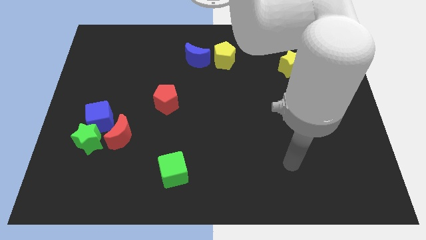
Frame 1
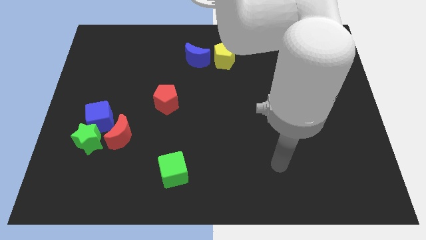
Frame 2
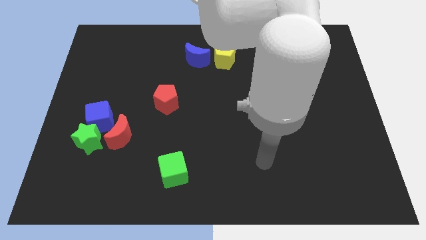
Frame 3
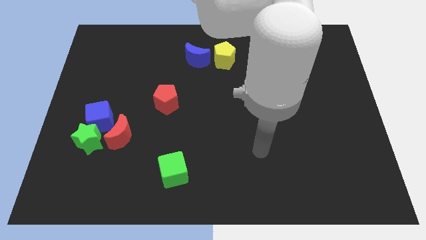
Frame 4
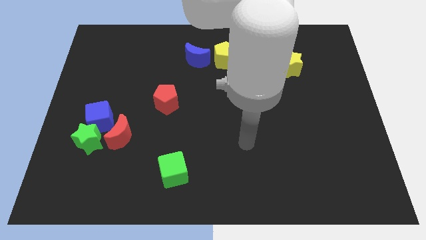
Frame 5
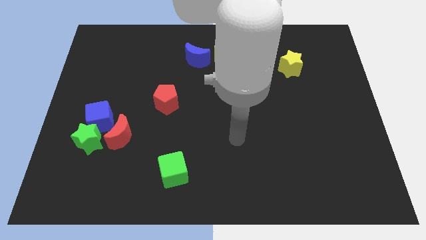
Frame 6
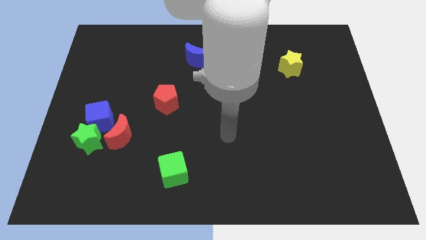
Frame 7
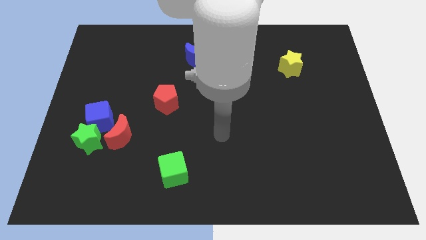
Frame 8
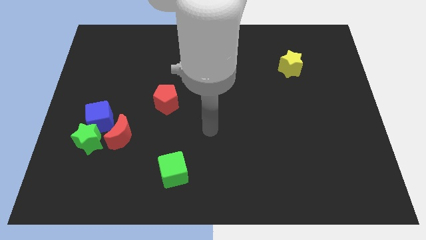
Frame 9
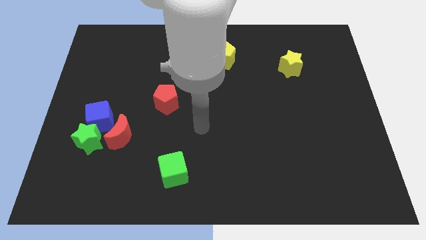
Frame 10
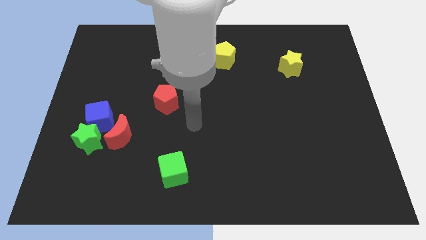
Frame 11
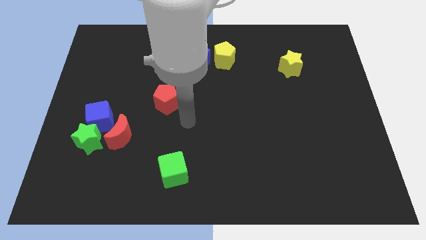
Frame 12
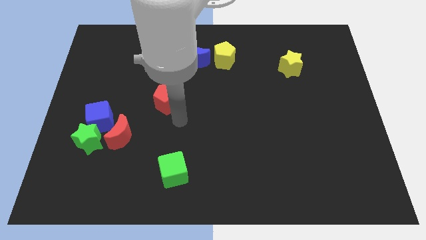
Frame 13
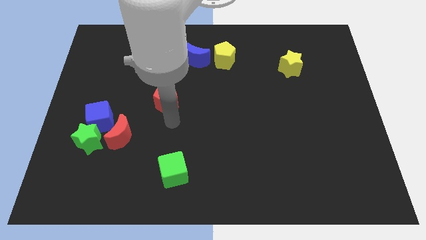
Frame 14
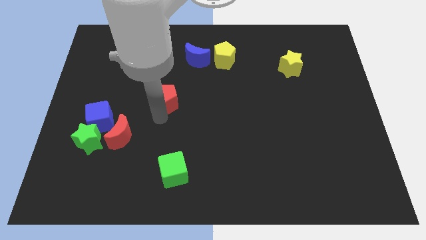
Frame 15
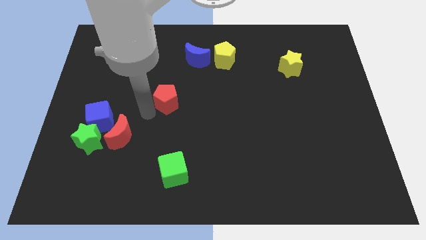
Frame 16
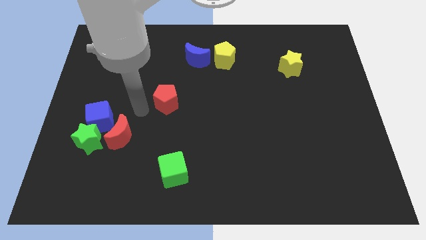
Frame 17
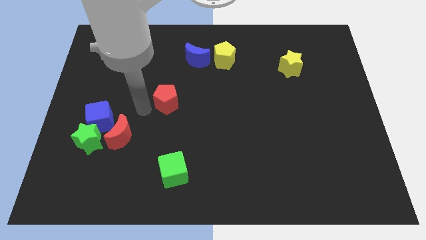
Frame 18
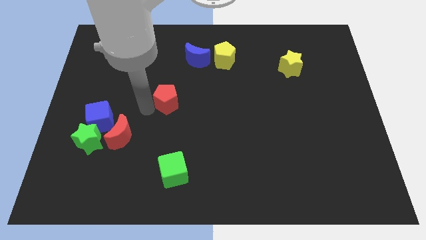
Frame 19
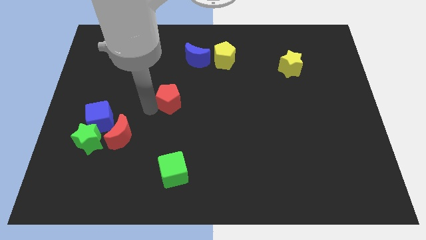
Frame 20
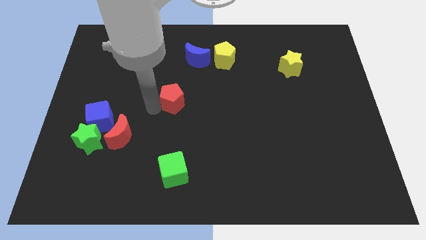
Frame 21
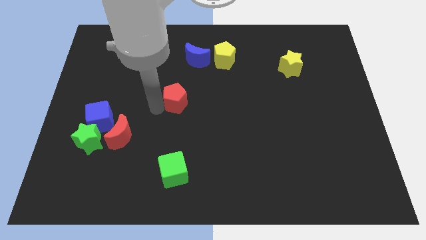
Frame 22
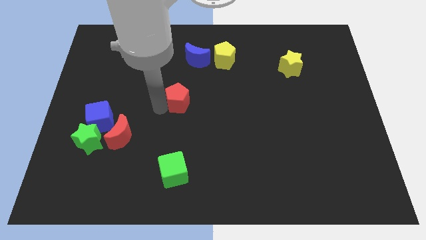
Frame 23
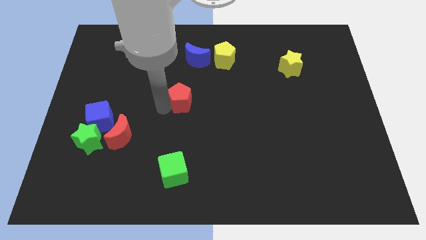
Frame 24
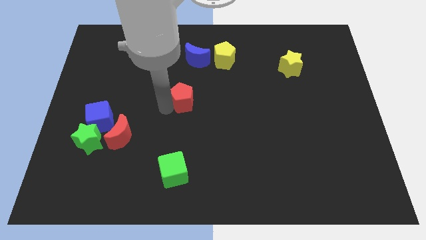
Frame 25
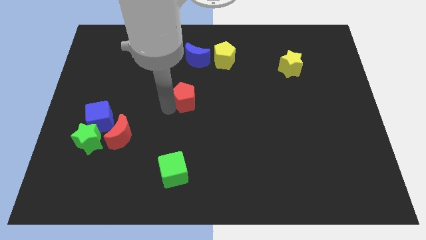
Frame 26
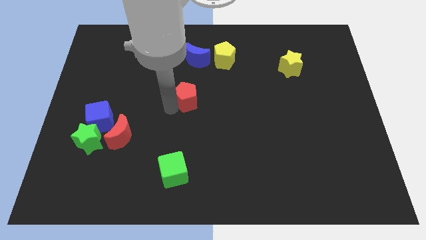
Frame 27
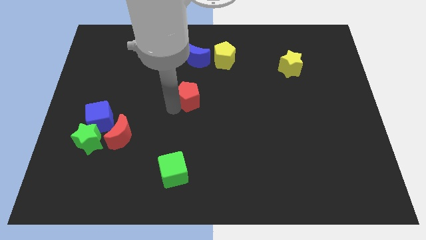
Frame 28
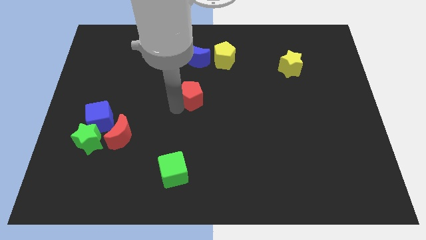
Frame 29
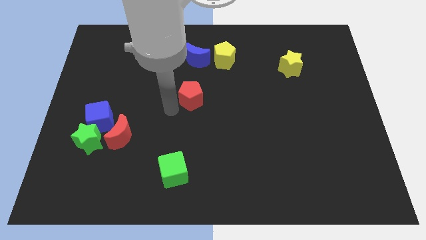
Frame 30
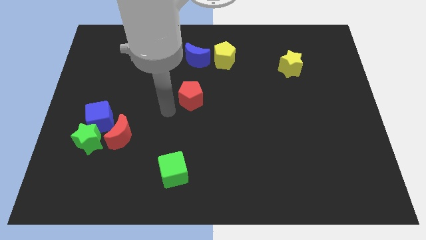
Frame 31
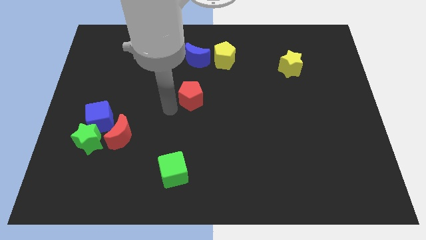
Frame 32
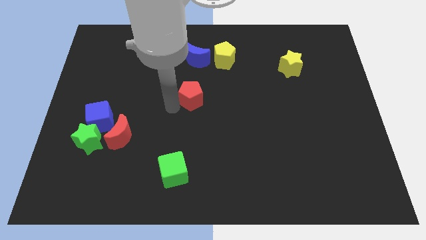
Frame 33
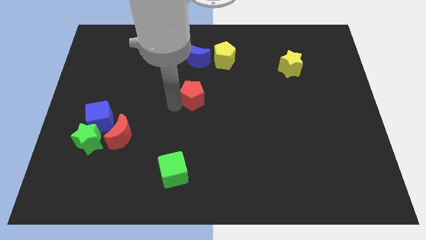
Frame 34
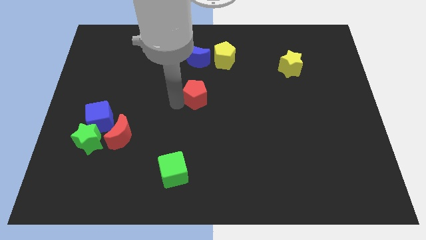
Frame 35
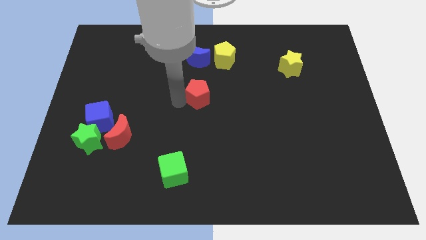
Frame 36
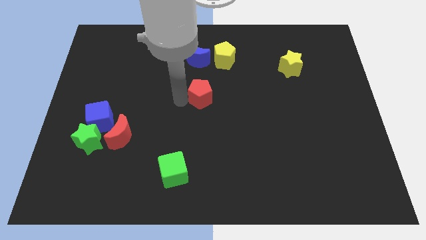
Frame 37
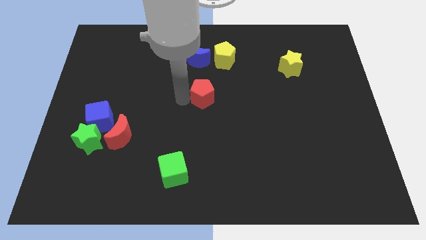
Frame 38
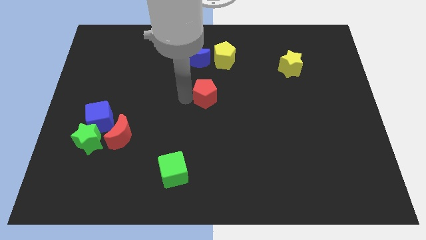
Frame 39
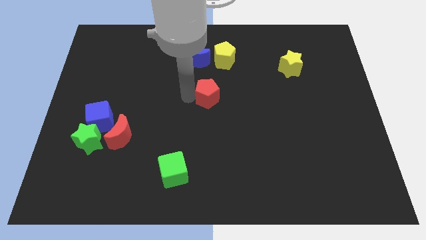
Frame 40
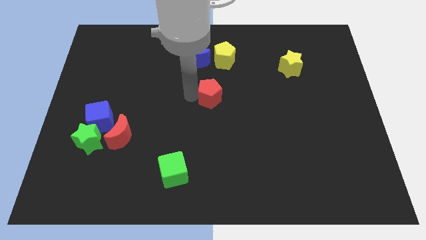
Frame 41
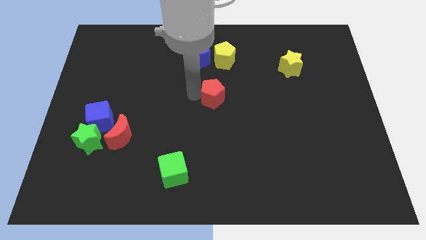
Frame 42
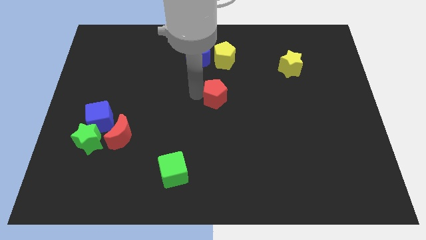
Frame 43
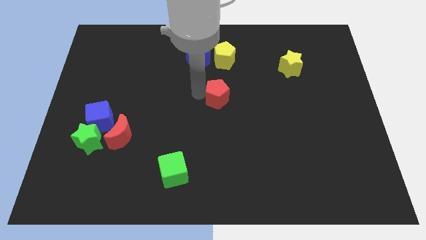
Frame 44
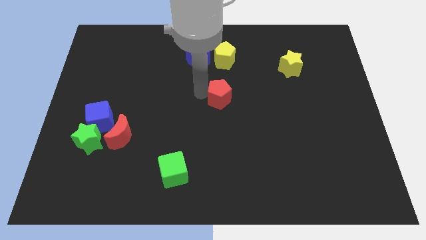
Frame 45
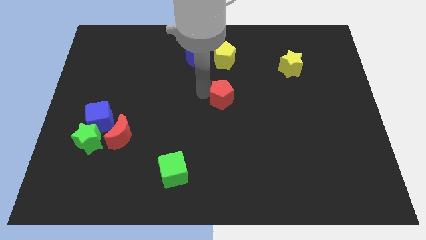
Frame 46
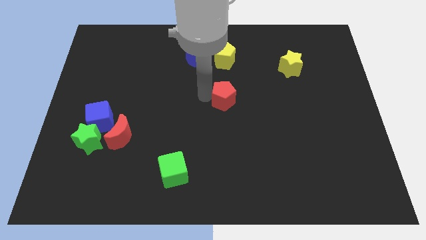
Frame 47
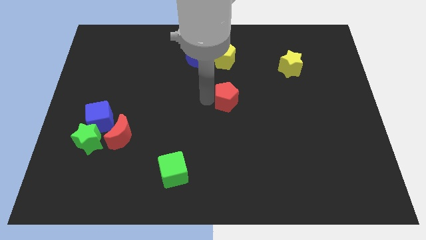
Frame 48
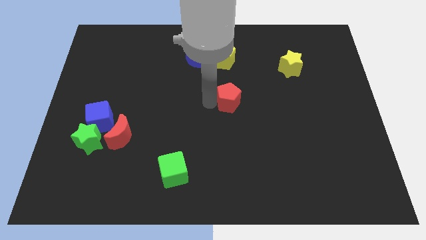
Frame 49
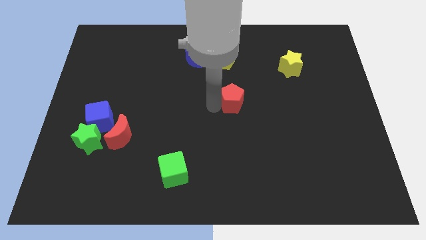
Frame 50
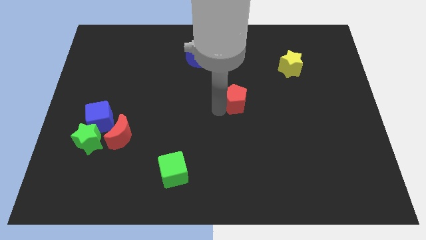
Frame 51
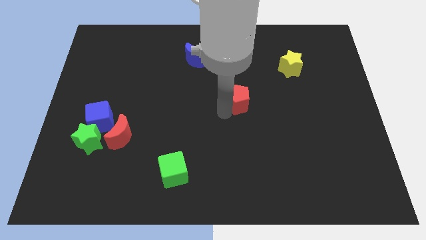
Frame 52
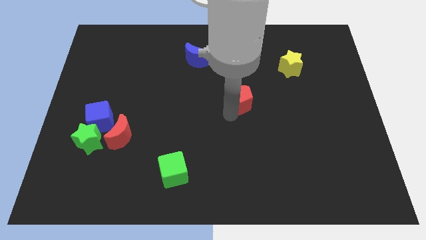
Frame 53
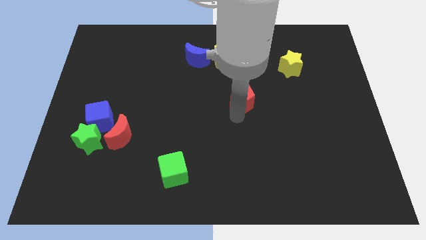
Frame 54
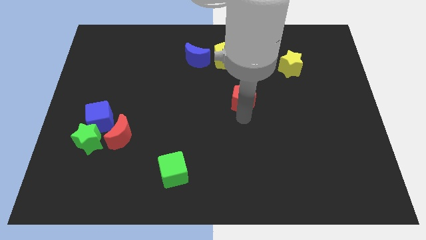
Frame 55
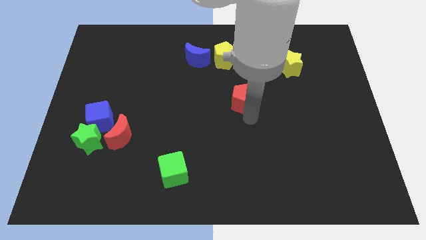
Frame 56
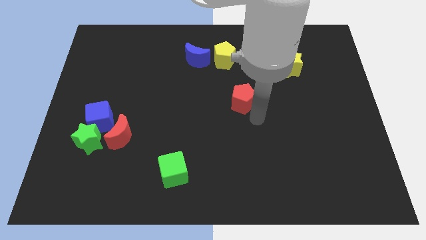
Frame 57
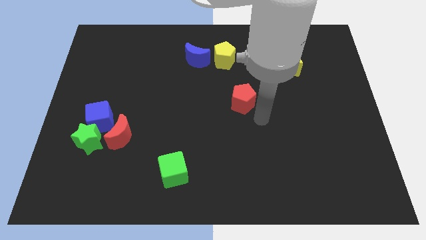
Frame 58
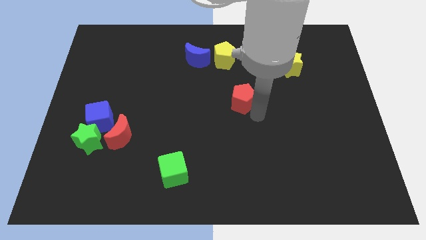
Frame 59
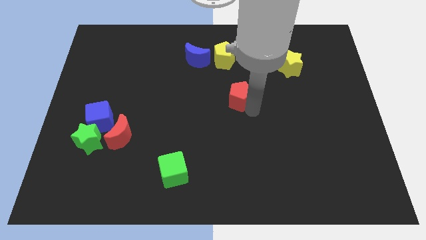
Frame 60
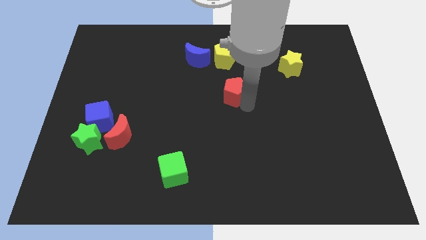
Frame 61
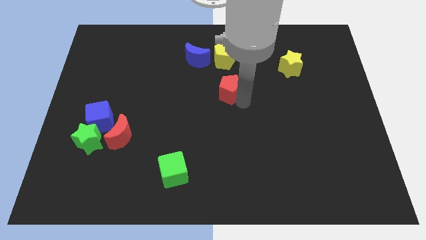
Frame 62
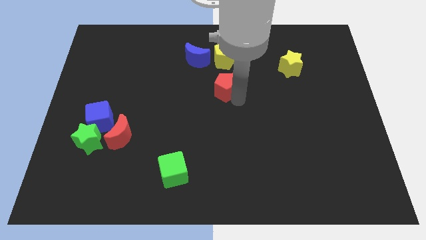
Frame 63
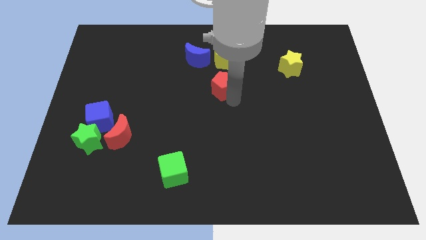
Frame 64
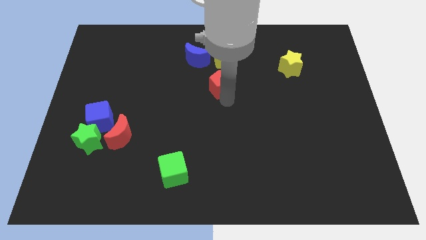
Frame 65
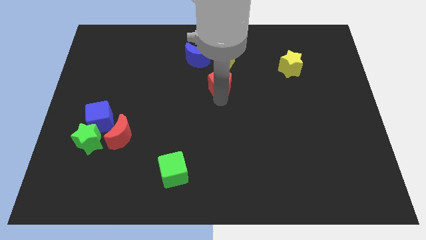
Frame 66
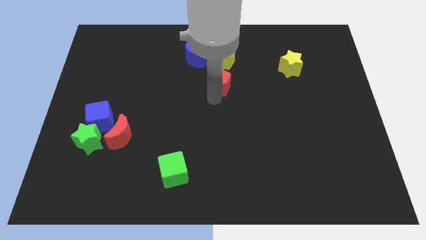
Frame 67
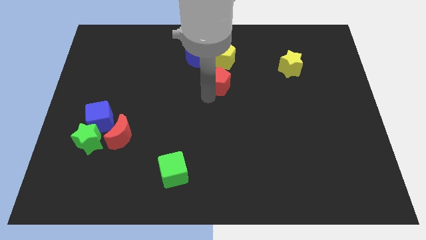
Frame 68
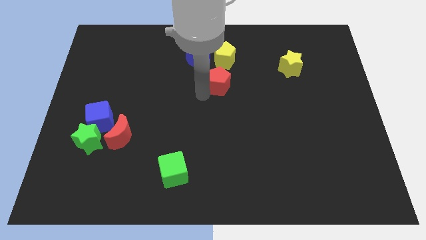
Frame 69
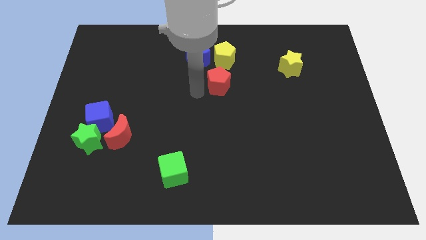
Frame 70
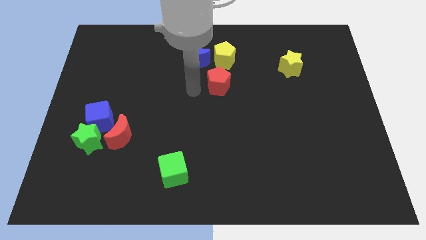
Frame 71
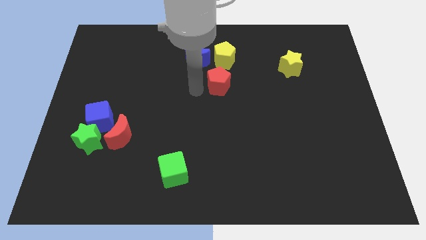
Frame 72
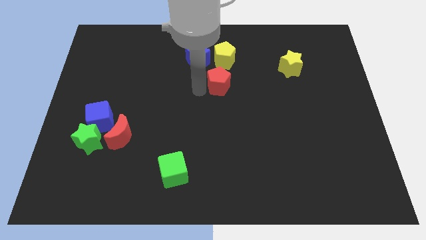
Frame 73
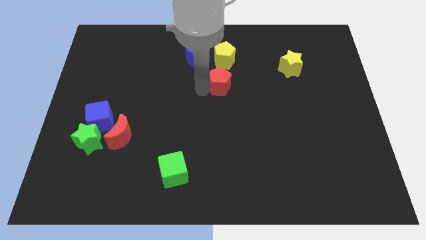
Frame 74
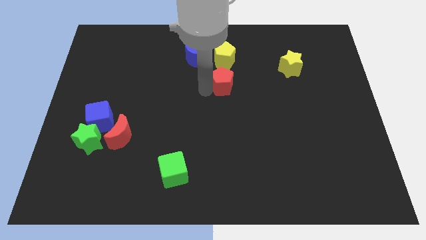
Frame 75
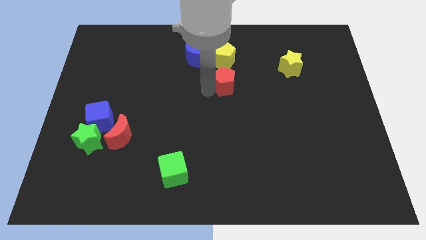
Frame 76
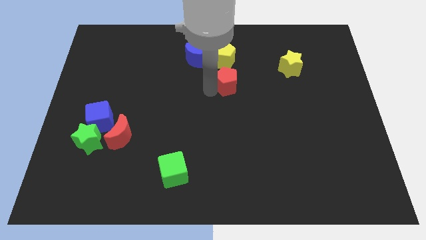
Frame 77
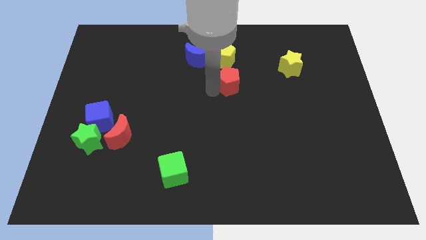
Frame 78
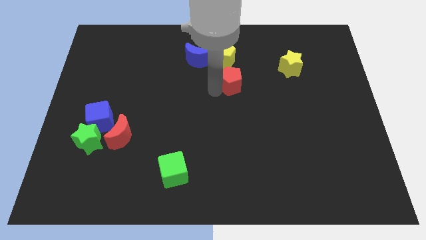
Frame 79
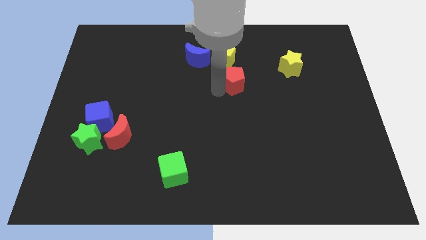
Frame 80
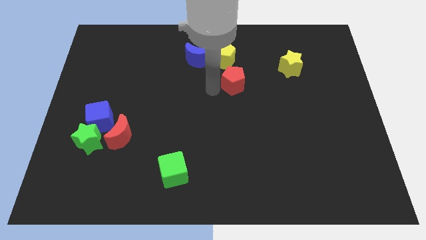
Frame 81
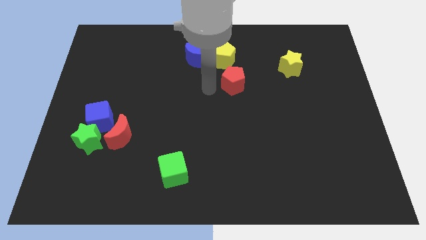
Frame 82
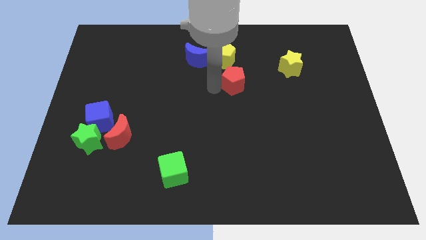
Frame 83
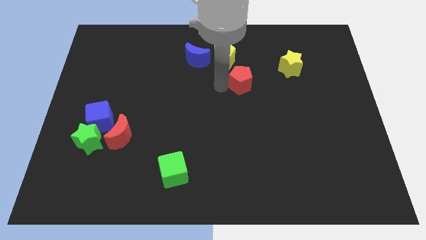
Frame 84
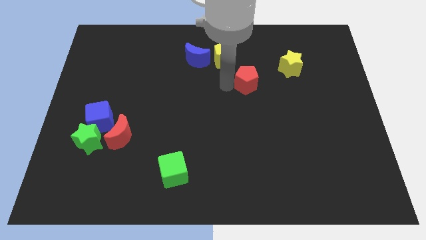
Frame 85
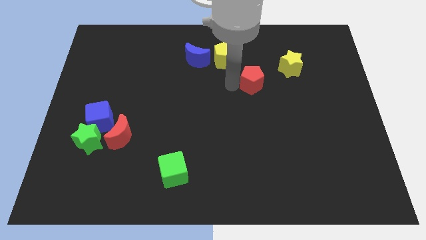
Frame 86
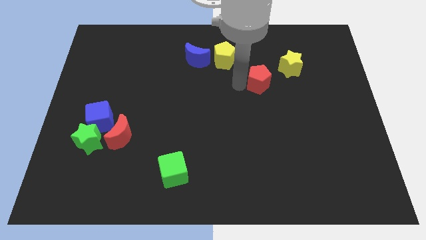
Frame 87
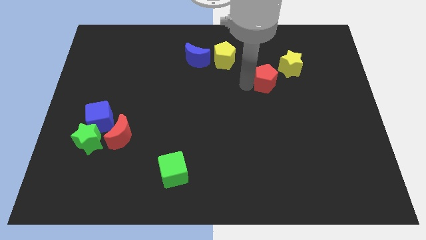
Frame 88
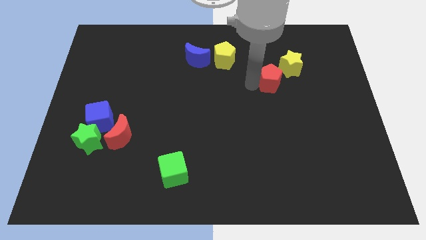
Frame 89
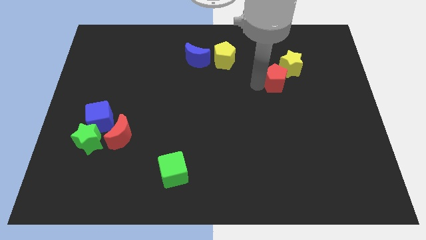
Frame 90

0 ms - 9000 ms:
move the red pentagon to the yellow star
